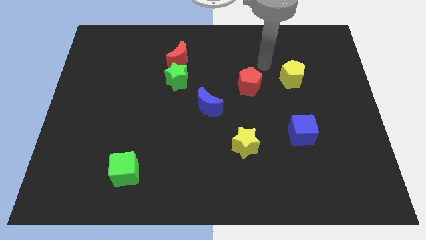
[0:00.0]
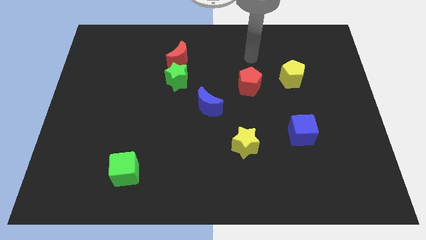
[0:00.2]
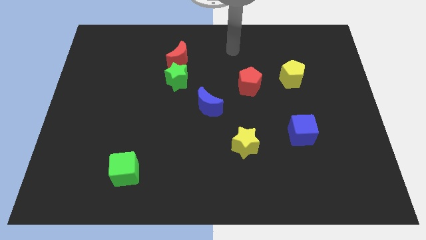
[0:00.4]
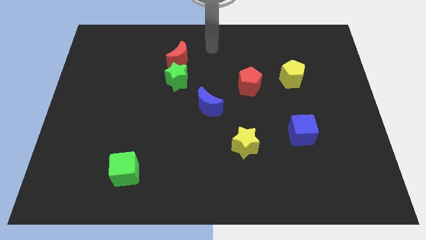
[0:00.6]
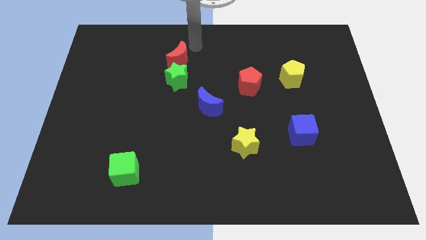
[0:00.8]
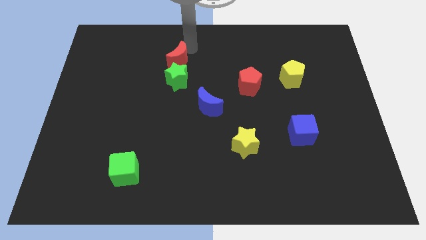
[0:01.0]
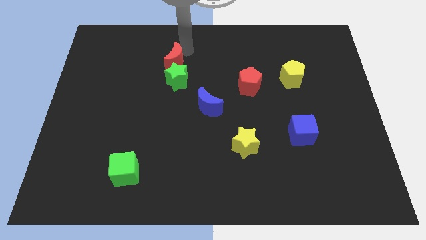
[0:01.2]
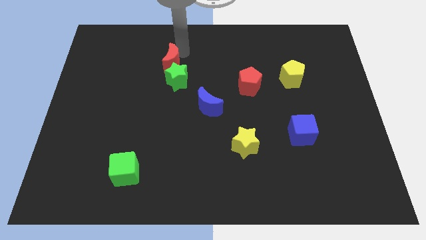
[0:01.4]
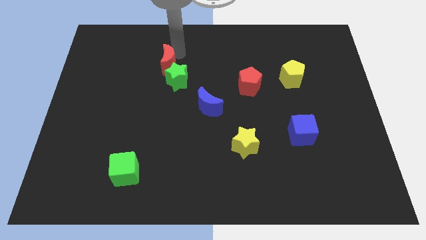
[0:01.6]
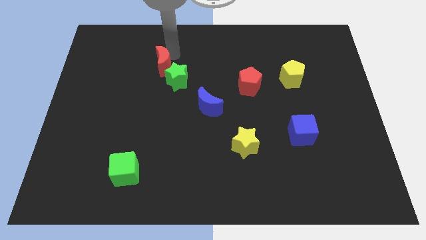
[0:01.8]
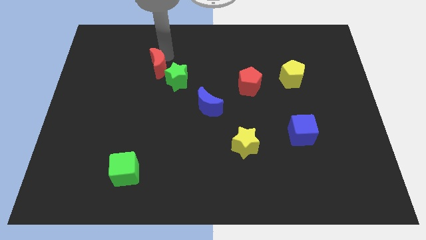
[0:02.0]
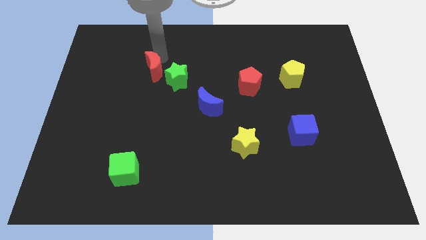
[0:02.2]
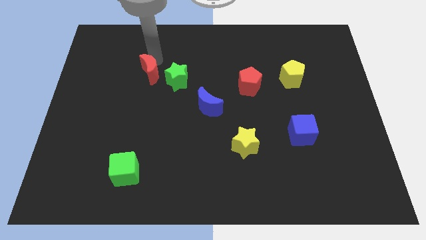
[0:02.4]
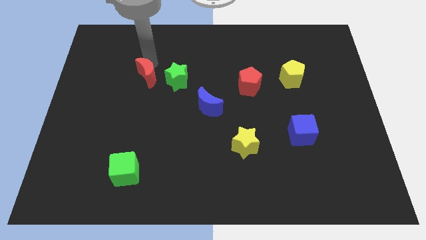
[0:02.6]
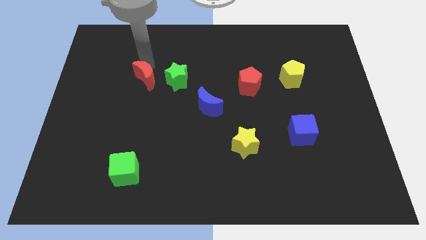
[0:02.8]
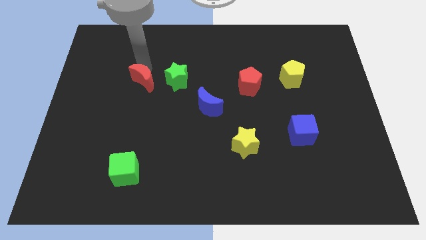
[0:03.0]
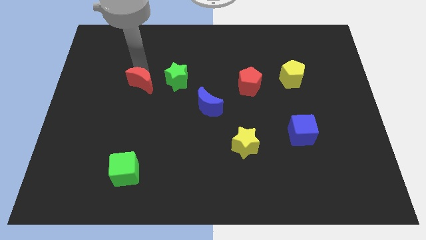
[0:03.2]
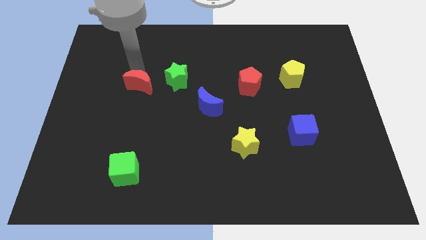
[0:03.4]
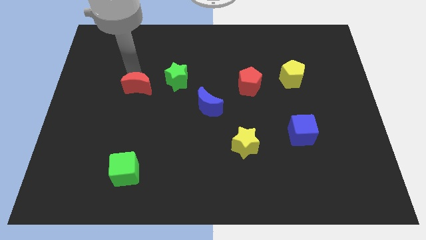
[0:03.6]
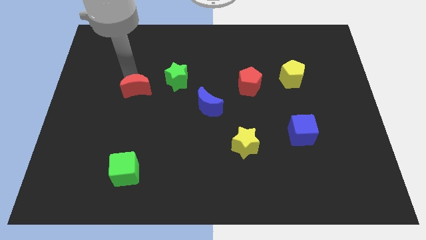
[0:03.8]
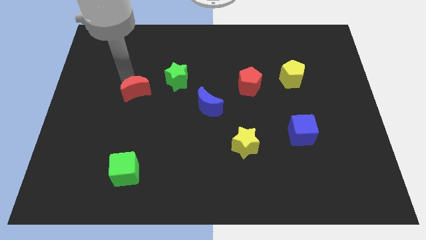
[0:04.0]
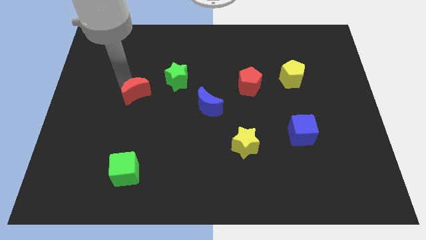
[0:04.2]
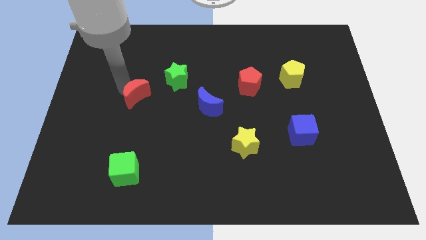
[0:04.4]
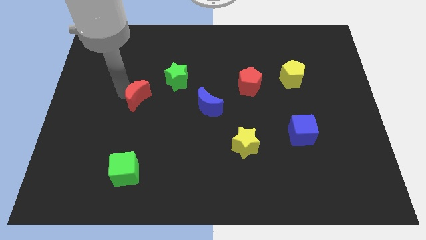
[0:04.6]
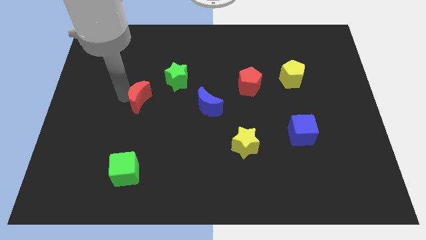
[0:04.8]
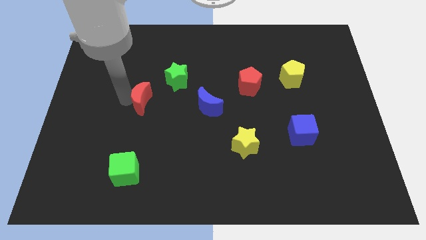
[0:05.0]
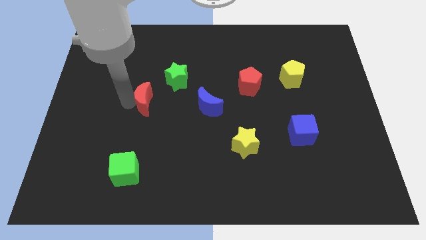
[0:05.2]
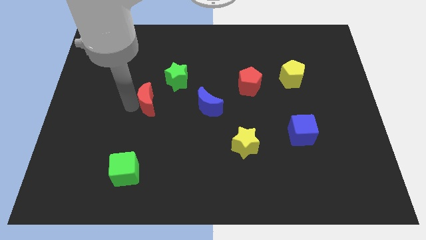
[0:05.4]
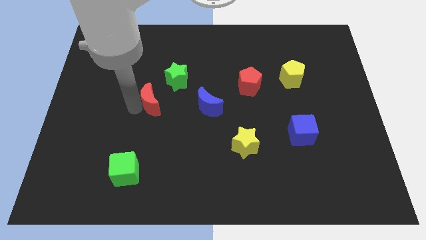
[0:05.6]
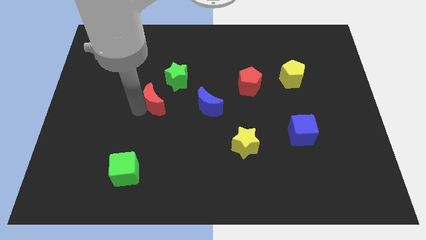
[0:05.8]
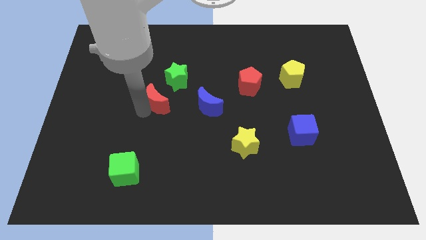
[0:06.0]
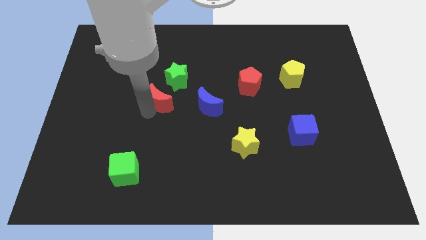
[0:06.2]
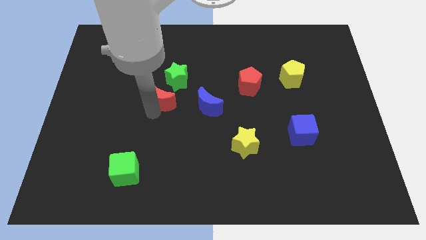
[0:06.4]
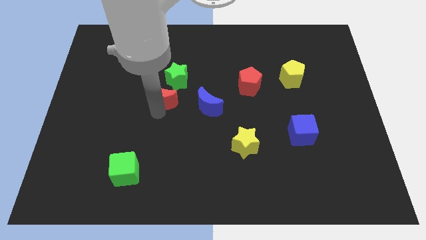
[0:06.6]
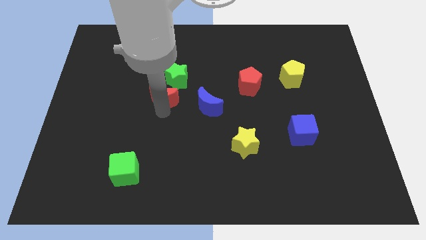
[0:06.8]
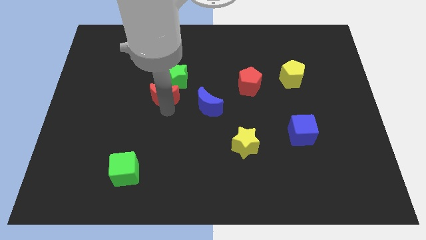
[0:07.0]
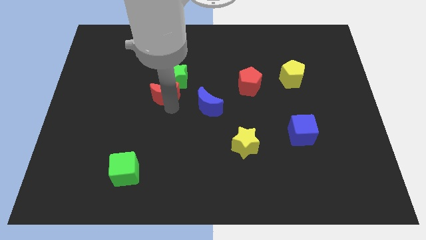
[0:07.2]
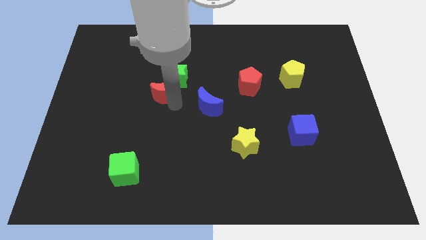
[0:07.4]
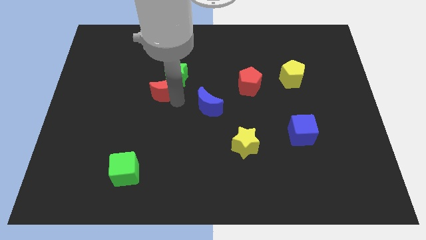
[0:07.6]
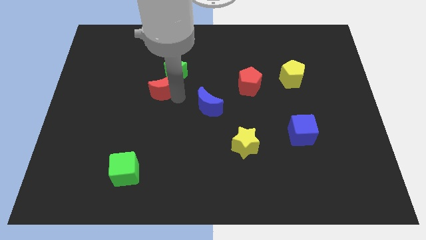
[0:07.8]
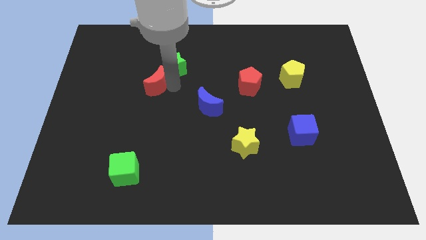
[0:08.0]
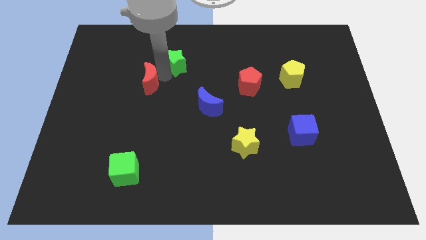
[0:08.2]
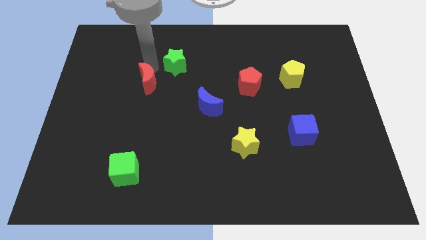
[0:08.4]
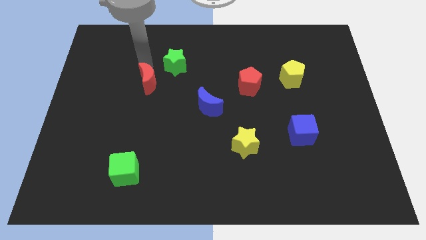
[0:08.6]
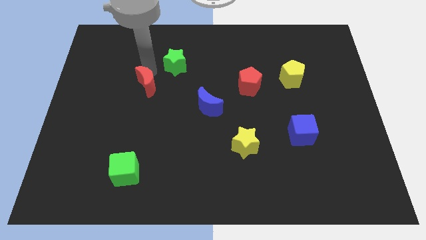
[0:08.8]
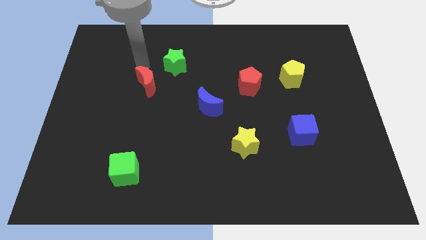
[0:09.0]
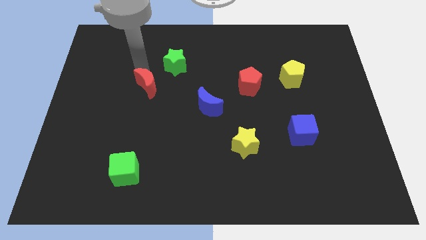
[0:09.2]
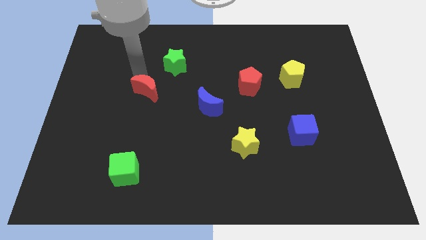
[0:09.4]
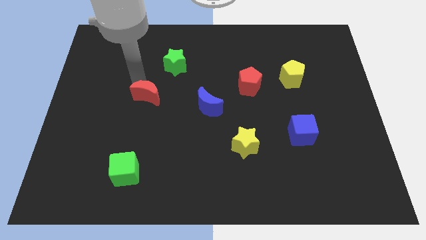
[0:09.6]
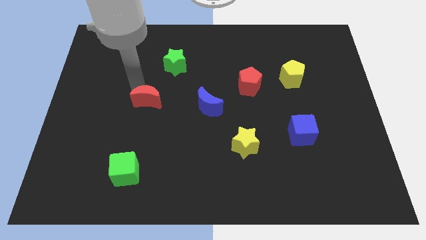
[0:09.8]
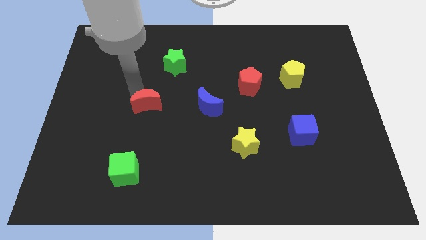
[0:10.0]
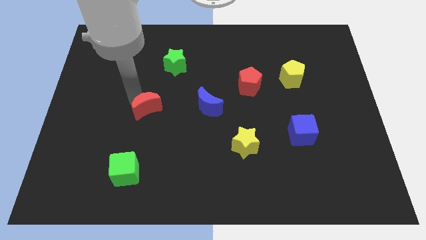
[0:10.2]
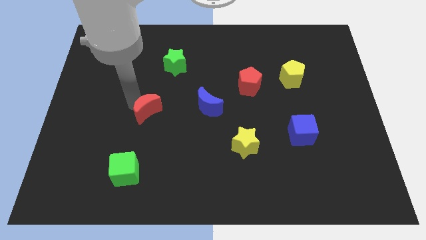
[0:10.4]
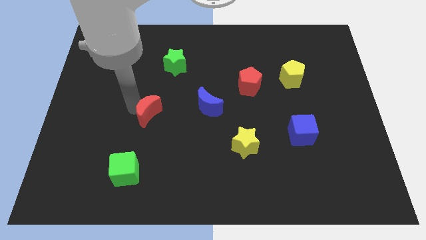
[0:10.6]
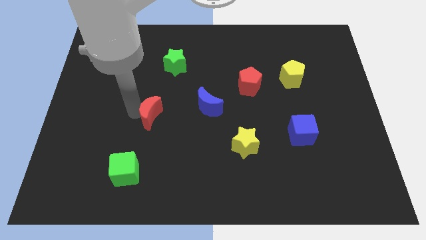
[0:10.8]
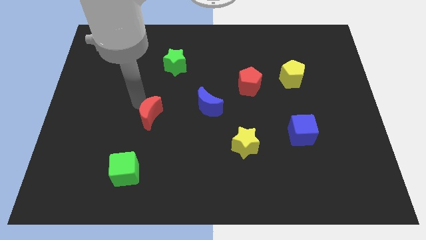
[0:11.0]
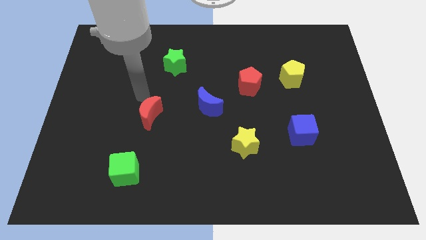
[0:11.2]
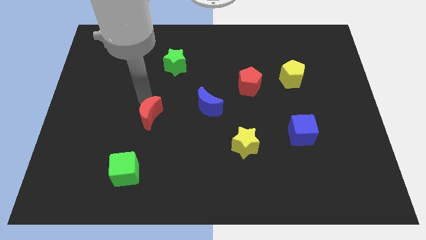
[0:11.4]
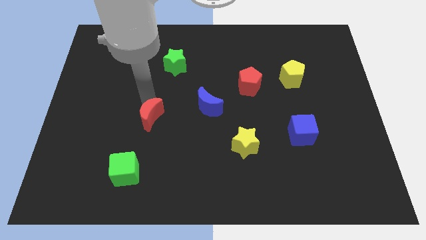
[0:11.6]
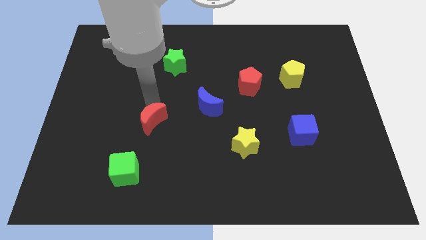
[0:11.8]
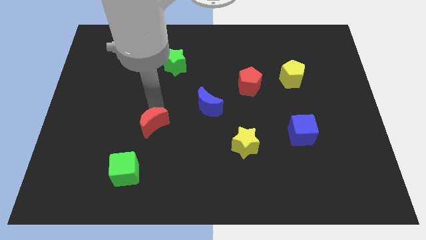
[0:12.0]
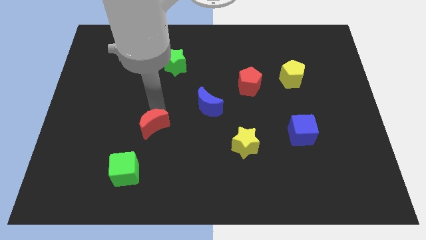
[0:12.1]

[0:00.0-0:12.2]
push the red moon downwards

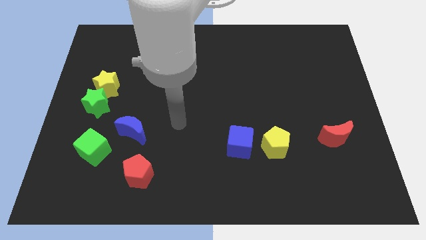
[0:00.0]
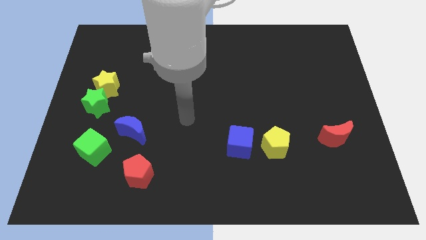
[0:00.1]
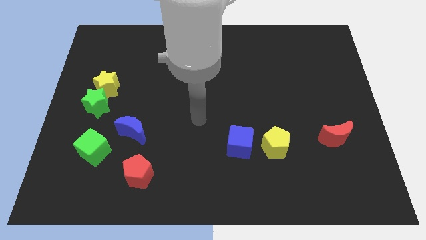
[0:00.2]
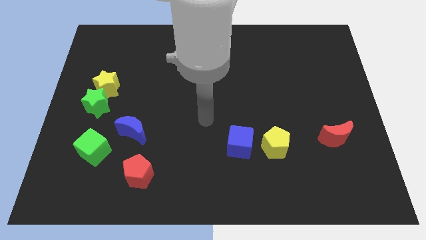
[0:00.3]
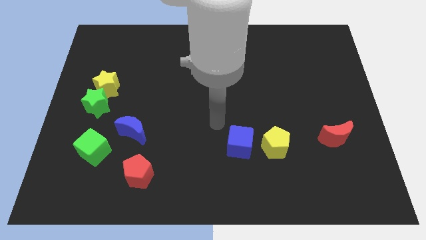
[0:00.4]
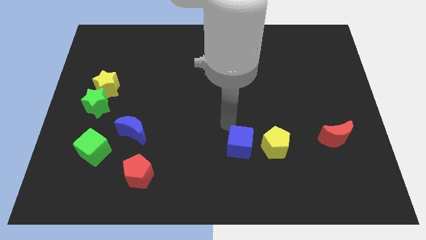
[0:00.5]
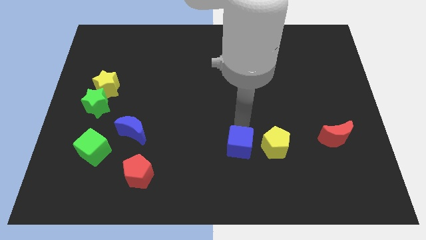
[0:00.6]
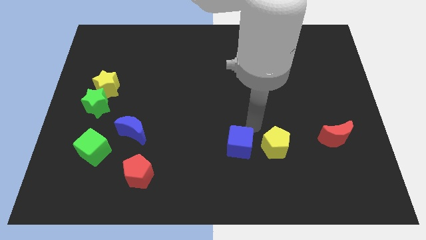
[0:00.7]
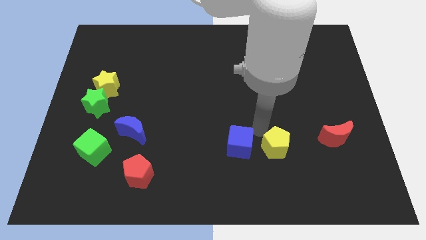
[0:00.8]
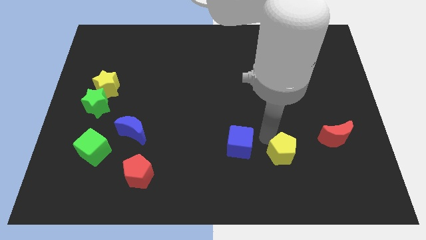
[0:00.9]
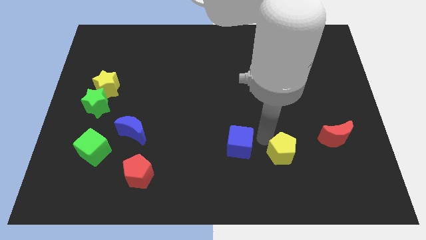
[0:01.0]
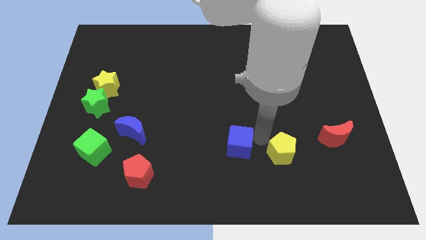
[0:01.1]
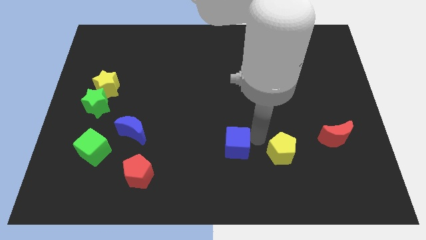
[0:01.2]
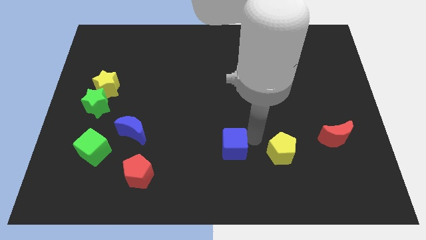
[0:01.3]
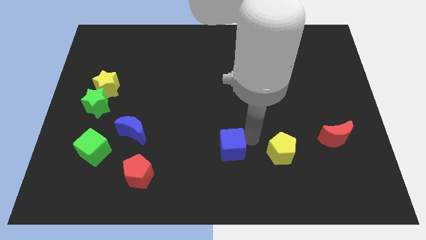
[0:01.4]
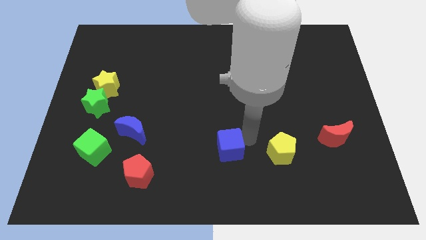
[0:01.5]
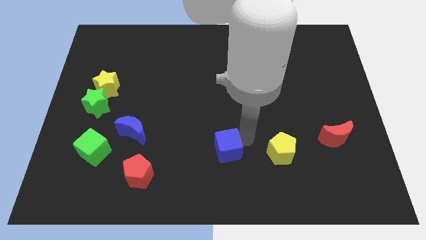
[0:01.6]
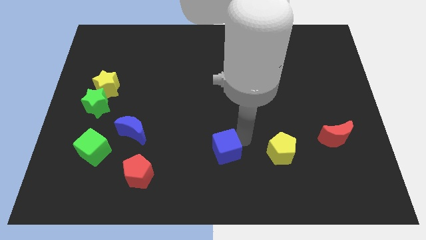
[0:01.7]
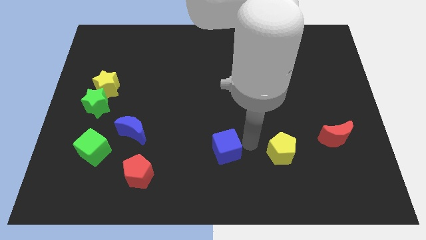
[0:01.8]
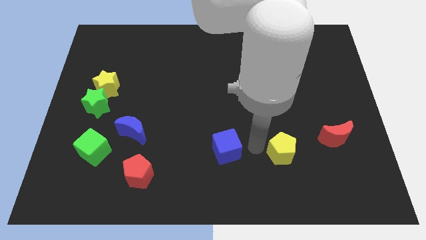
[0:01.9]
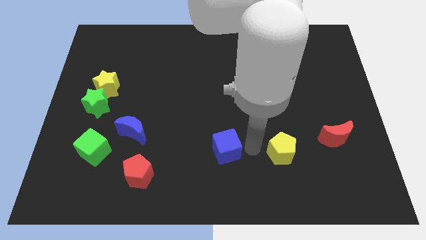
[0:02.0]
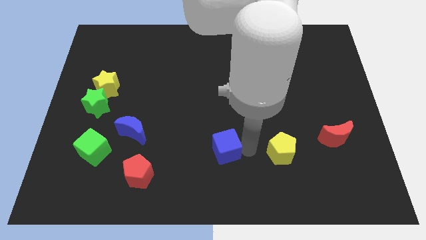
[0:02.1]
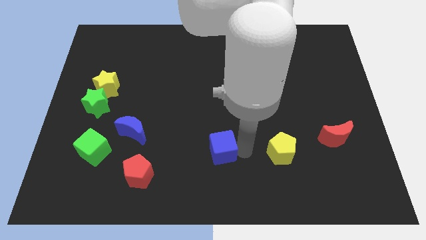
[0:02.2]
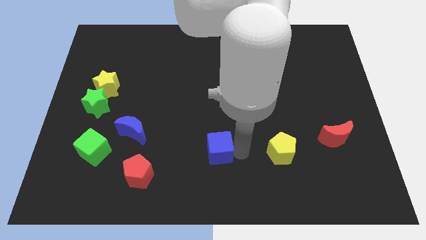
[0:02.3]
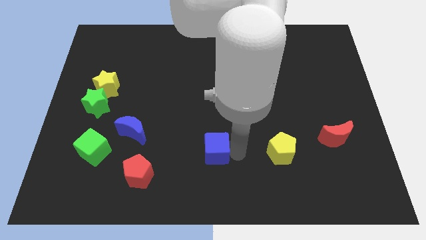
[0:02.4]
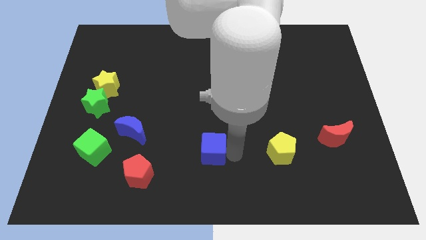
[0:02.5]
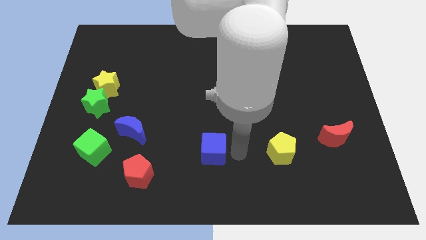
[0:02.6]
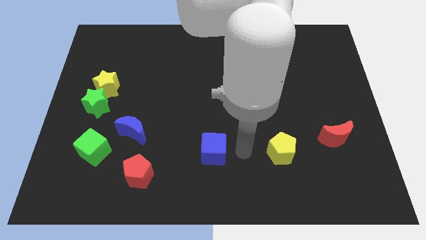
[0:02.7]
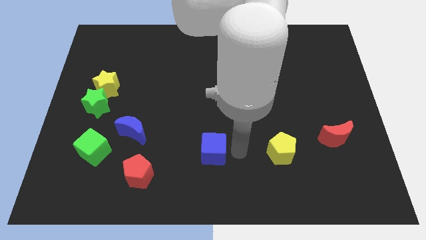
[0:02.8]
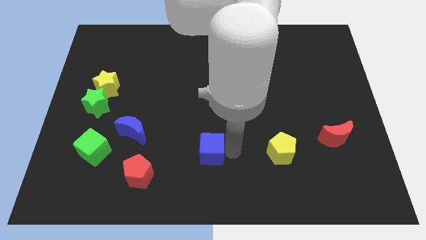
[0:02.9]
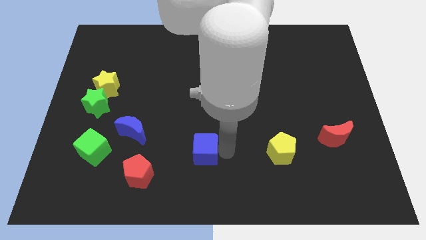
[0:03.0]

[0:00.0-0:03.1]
push the blue cube left slightly
